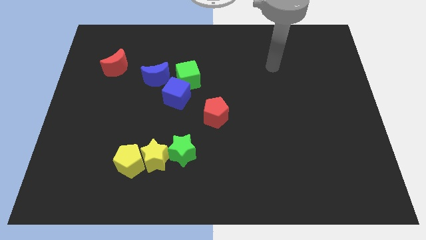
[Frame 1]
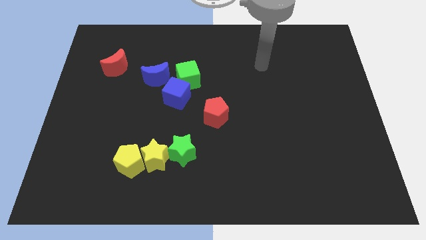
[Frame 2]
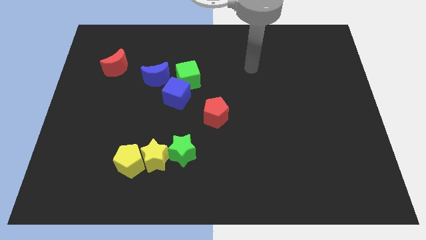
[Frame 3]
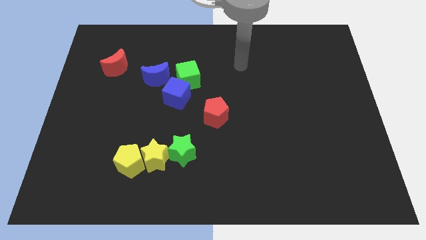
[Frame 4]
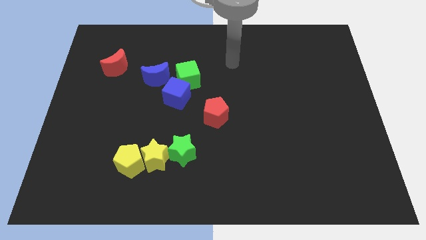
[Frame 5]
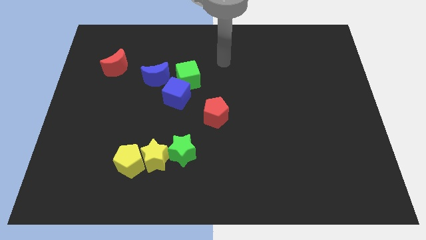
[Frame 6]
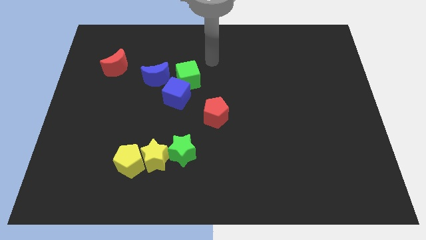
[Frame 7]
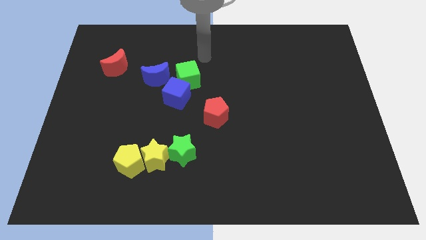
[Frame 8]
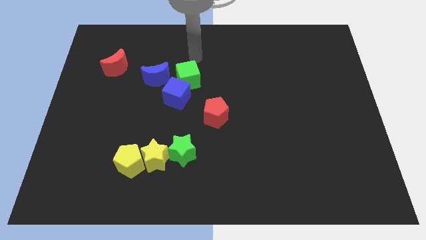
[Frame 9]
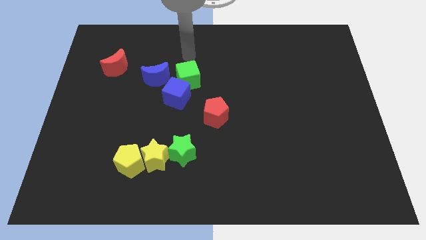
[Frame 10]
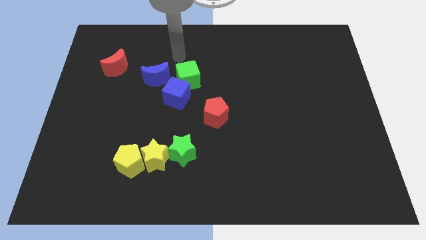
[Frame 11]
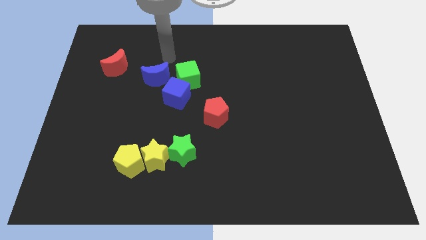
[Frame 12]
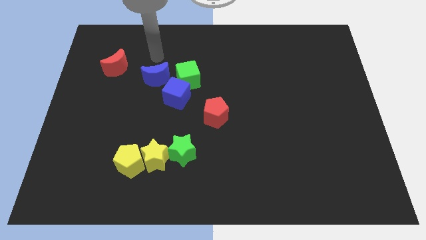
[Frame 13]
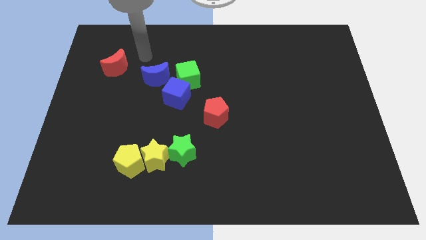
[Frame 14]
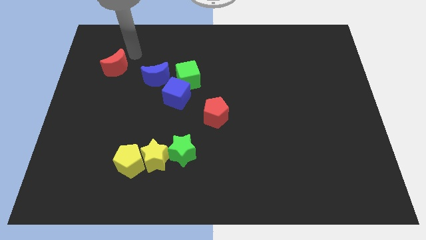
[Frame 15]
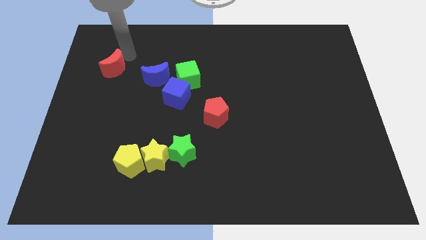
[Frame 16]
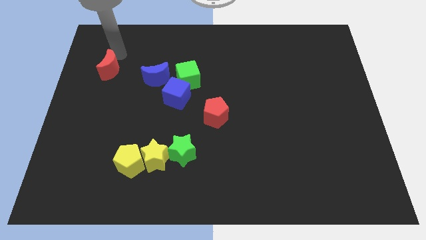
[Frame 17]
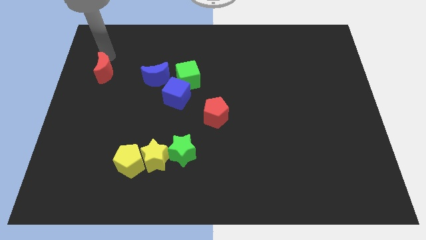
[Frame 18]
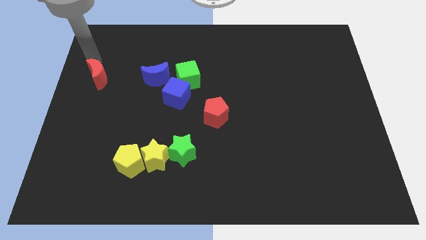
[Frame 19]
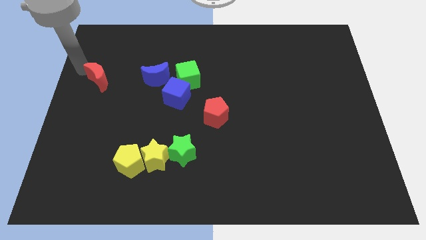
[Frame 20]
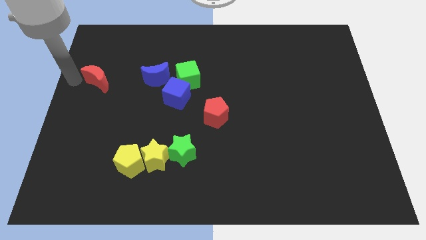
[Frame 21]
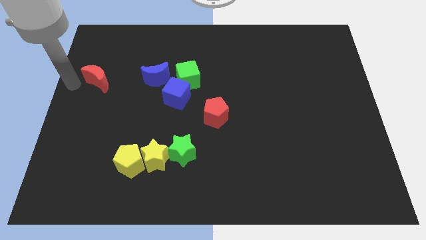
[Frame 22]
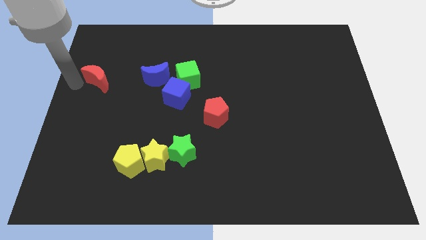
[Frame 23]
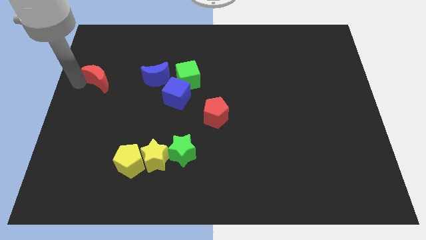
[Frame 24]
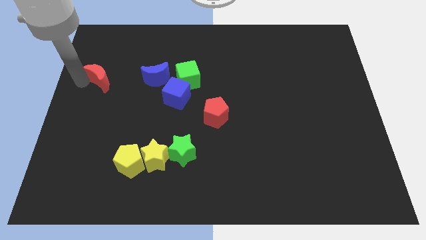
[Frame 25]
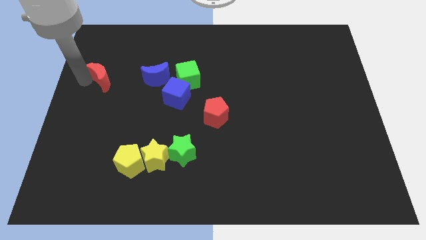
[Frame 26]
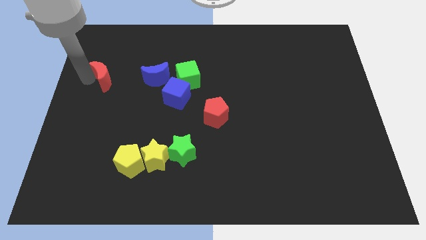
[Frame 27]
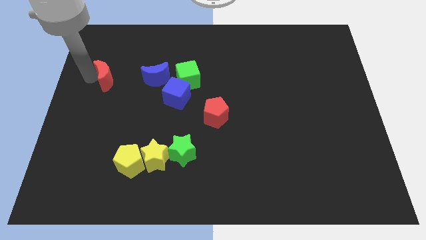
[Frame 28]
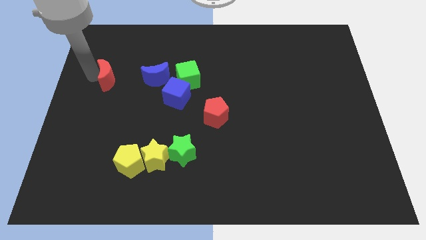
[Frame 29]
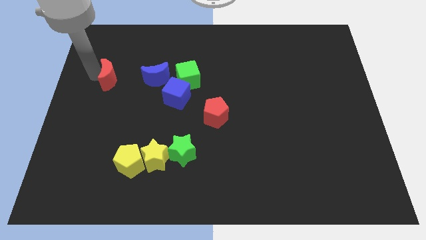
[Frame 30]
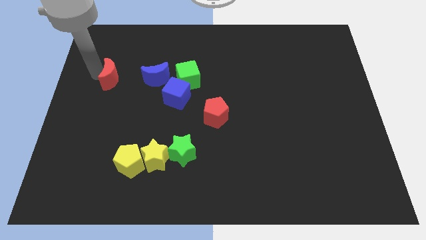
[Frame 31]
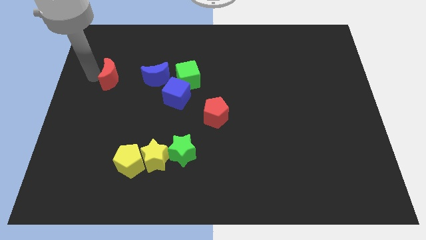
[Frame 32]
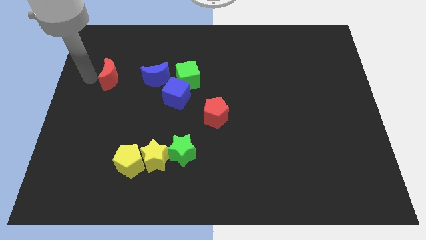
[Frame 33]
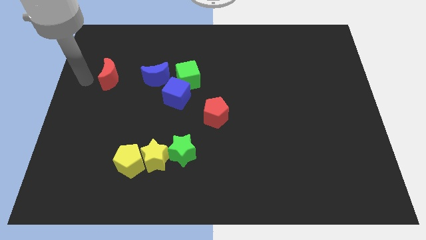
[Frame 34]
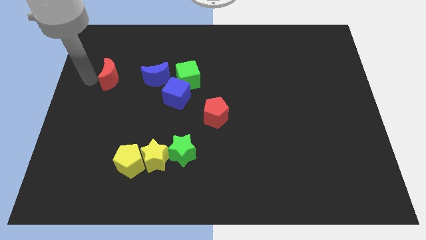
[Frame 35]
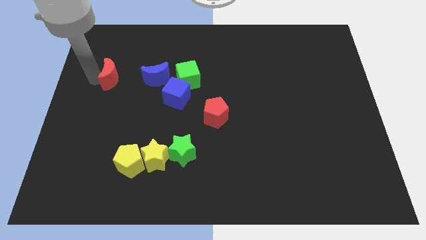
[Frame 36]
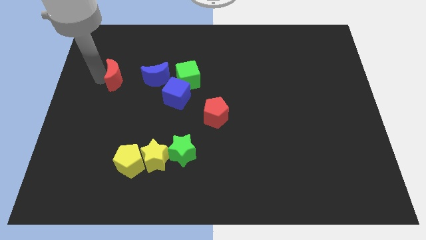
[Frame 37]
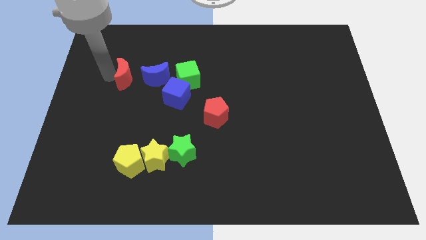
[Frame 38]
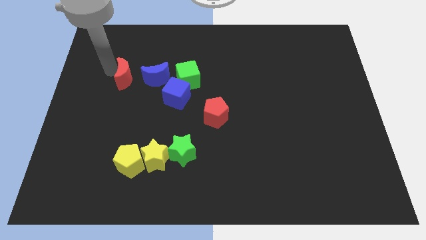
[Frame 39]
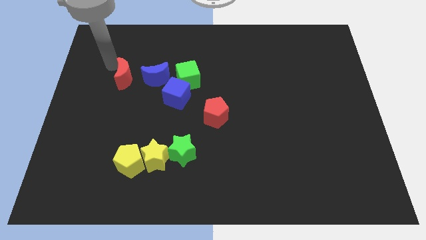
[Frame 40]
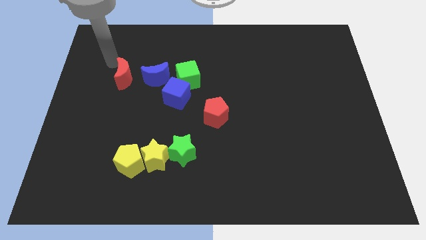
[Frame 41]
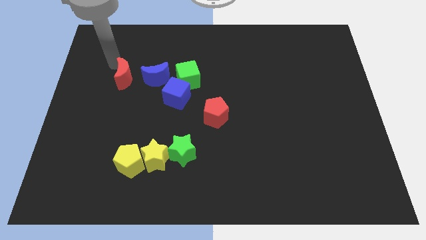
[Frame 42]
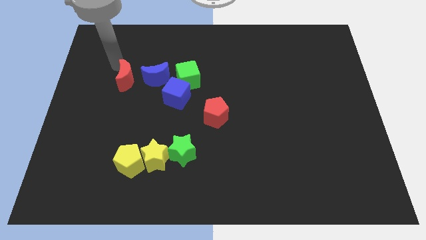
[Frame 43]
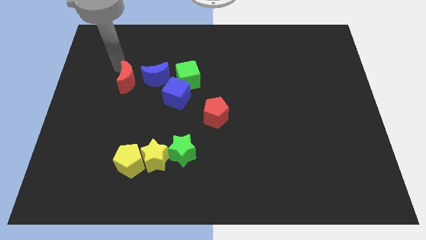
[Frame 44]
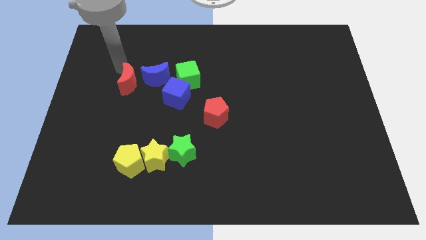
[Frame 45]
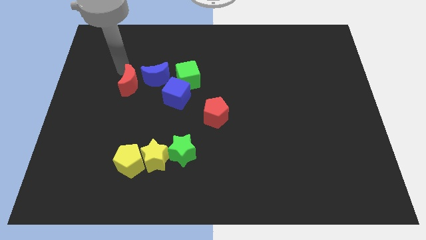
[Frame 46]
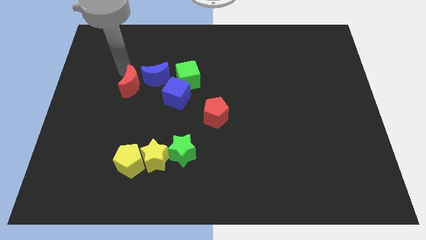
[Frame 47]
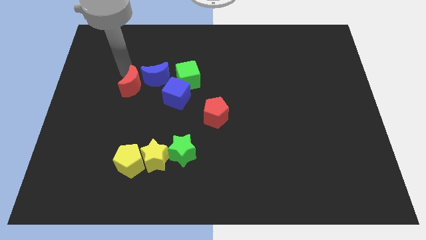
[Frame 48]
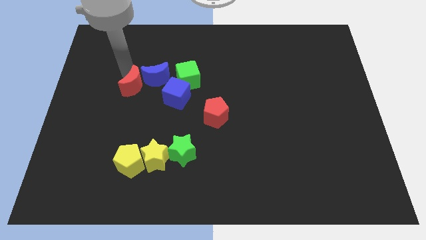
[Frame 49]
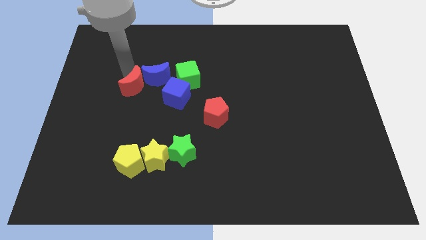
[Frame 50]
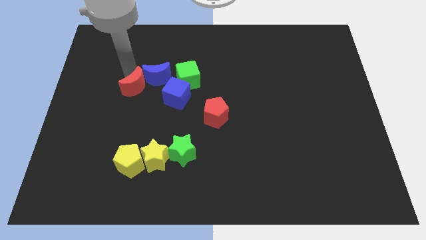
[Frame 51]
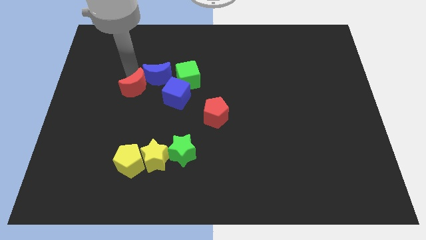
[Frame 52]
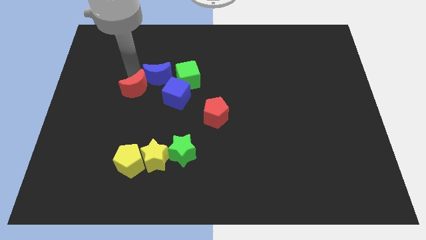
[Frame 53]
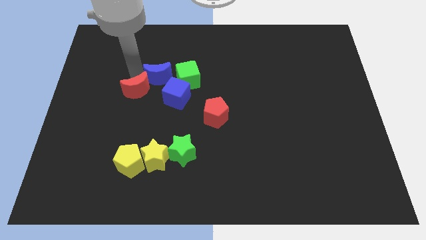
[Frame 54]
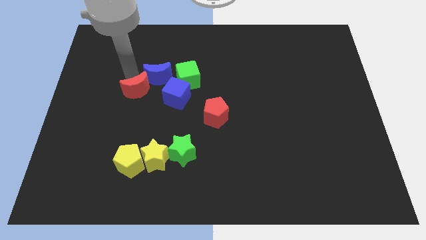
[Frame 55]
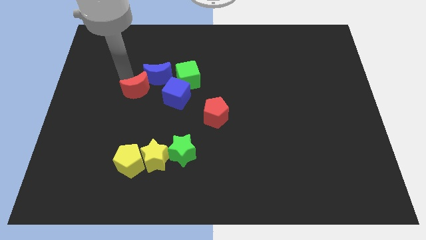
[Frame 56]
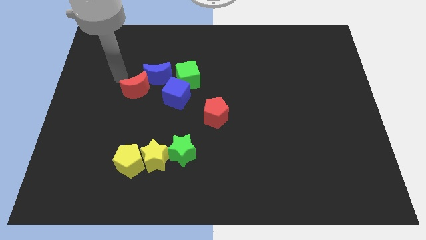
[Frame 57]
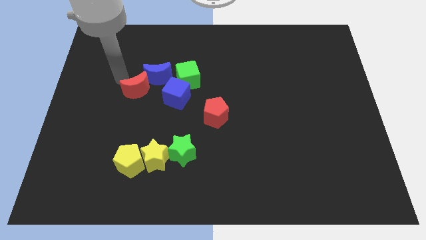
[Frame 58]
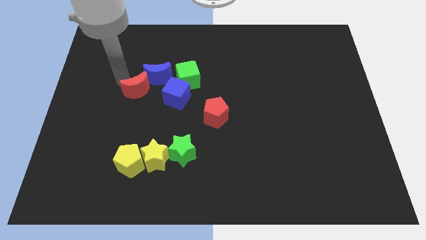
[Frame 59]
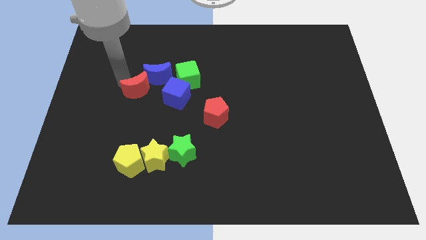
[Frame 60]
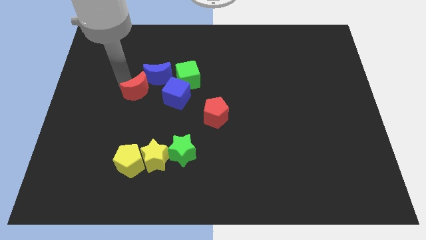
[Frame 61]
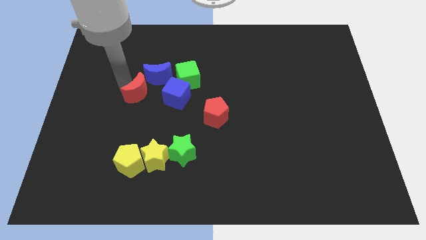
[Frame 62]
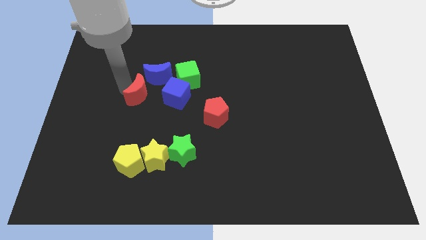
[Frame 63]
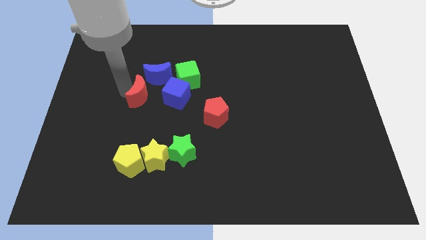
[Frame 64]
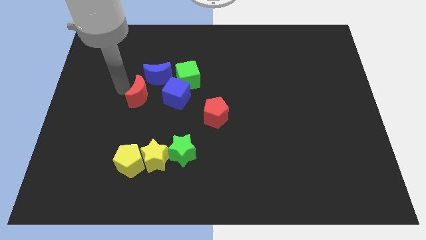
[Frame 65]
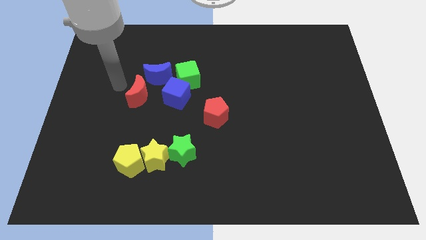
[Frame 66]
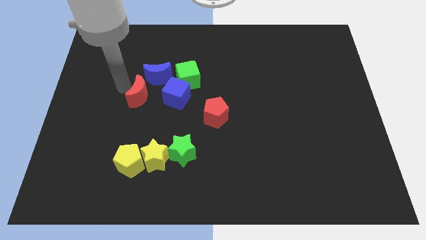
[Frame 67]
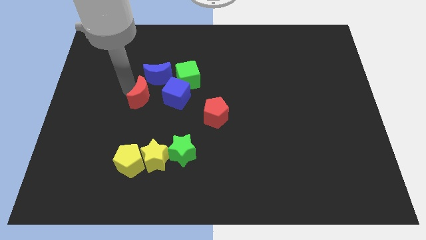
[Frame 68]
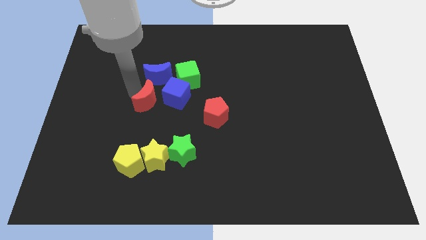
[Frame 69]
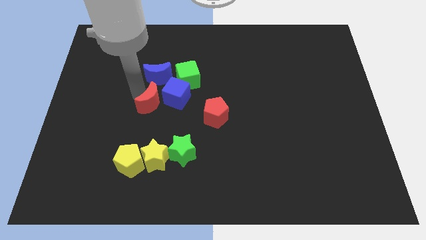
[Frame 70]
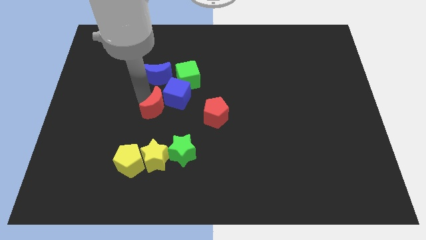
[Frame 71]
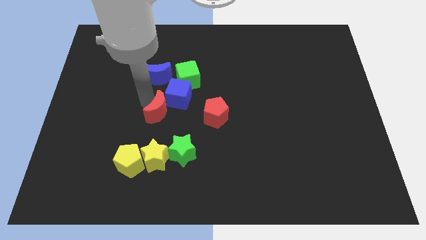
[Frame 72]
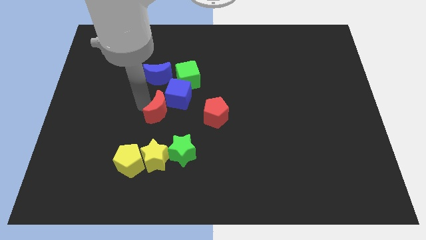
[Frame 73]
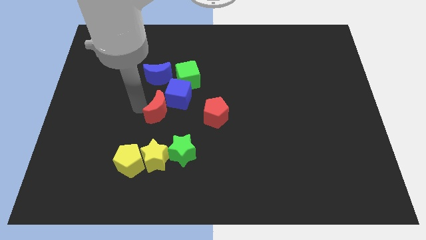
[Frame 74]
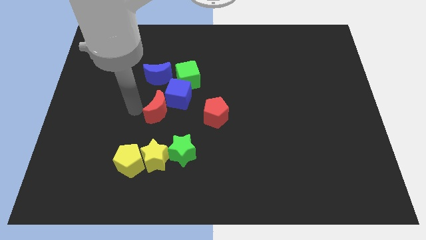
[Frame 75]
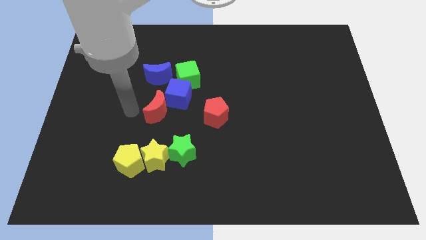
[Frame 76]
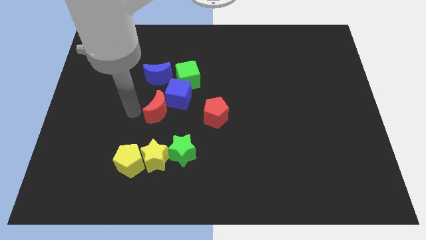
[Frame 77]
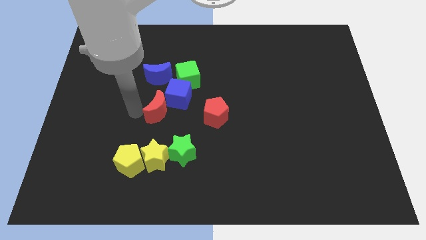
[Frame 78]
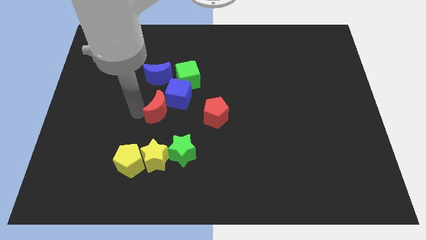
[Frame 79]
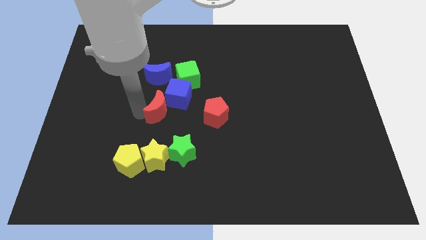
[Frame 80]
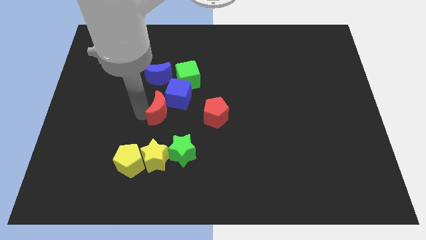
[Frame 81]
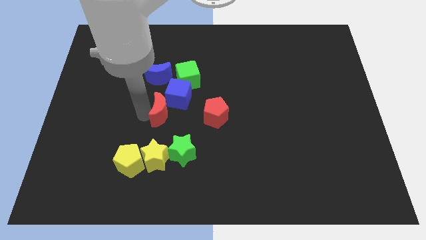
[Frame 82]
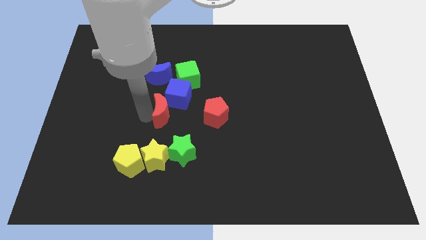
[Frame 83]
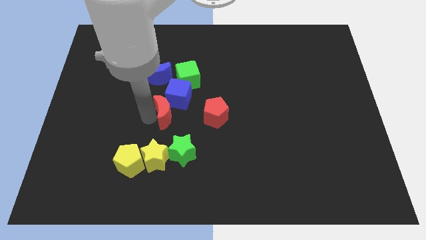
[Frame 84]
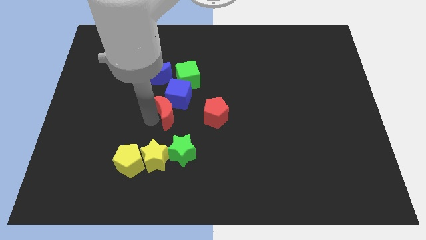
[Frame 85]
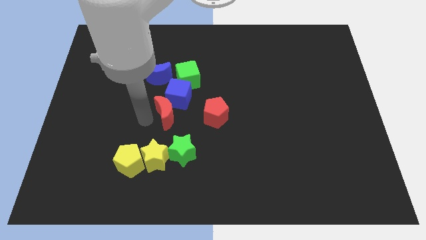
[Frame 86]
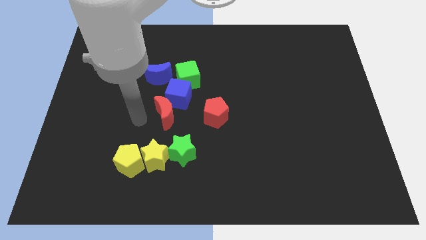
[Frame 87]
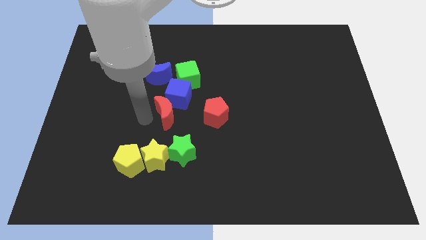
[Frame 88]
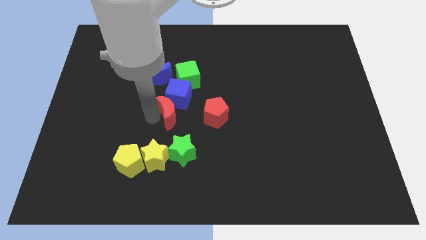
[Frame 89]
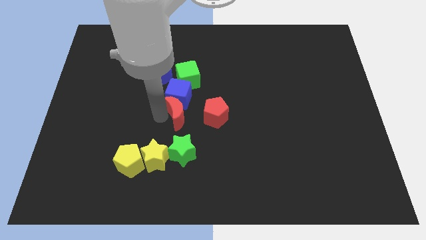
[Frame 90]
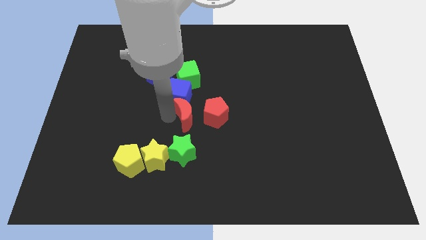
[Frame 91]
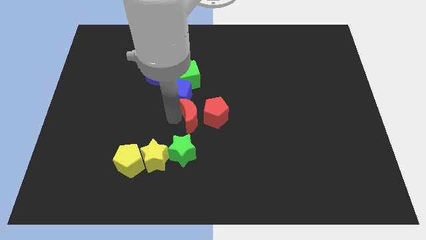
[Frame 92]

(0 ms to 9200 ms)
move the red moon to the top left of the red pentagon
